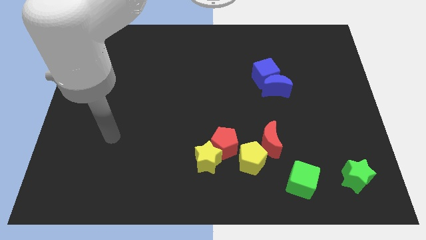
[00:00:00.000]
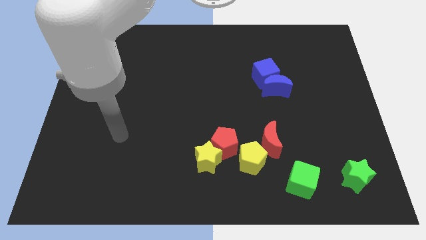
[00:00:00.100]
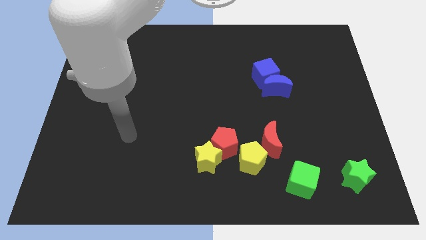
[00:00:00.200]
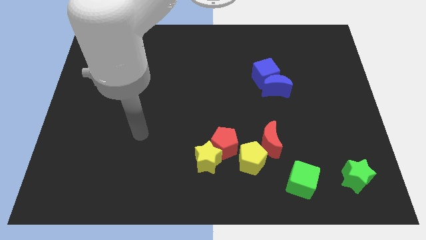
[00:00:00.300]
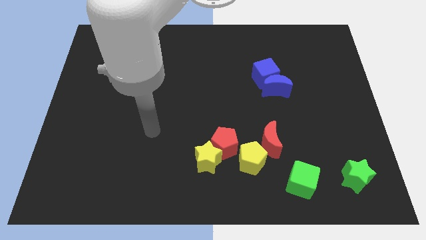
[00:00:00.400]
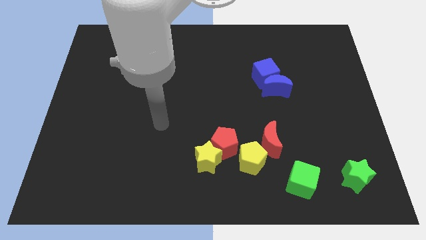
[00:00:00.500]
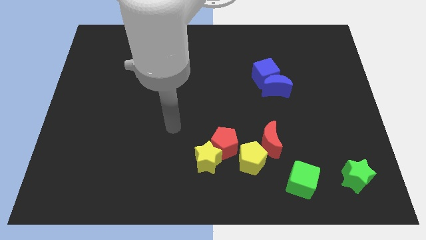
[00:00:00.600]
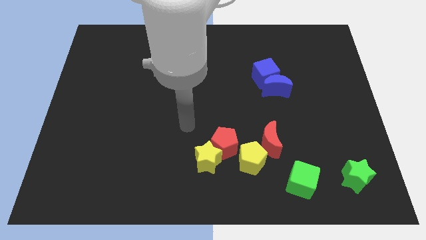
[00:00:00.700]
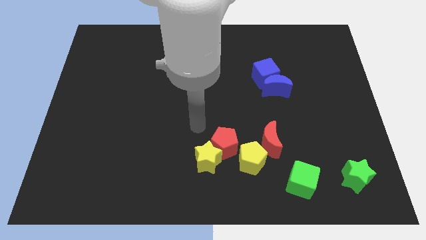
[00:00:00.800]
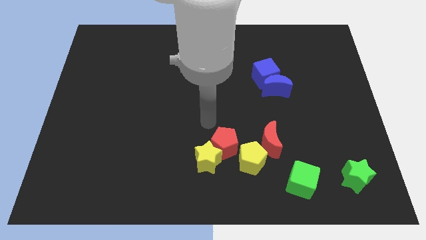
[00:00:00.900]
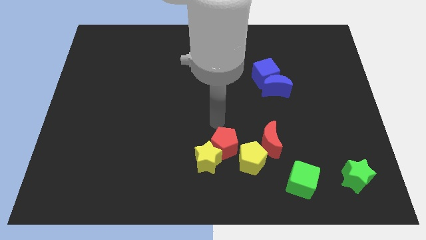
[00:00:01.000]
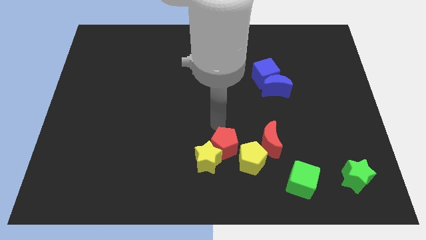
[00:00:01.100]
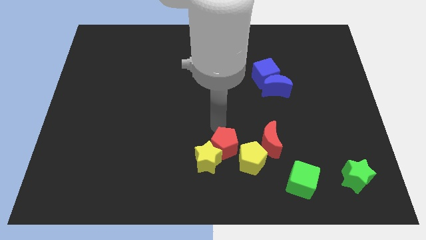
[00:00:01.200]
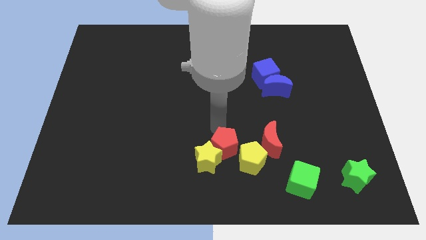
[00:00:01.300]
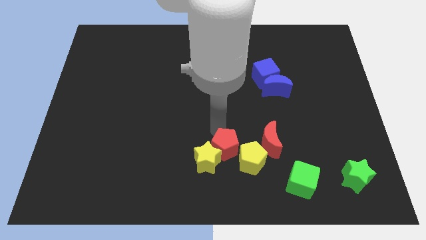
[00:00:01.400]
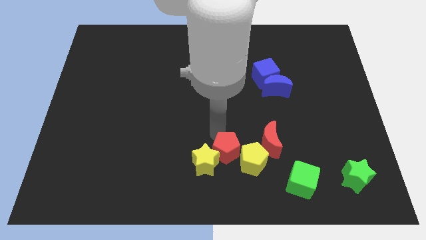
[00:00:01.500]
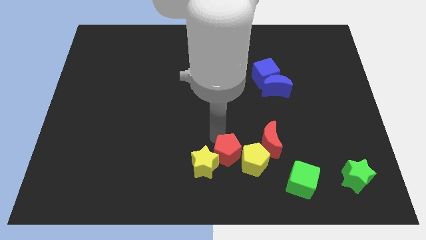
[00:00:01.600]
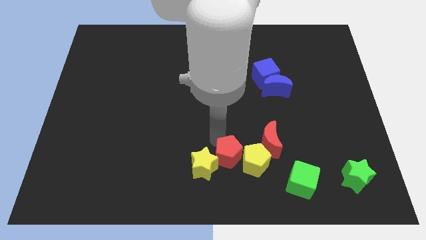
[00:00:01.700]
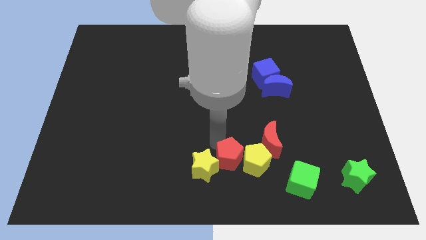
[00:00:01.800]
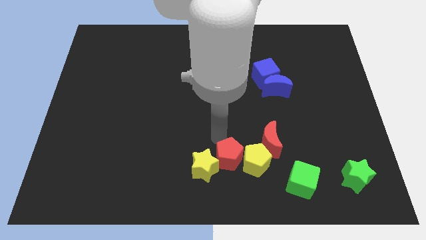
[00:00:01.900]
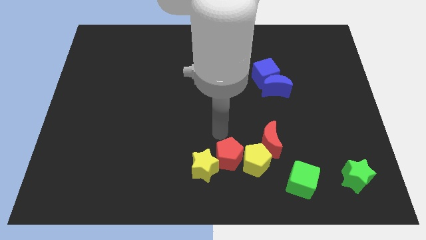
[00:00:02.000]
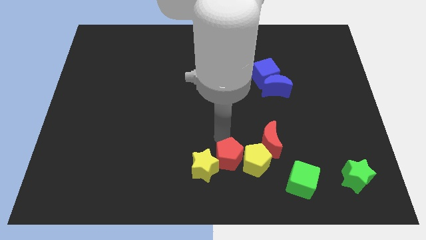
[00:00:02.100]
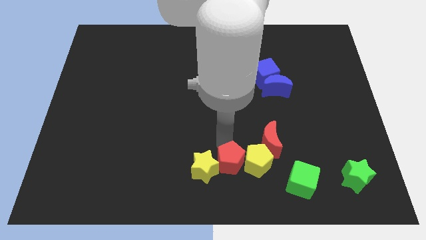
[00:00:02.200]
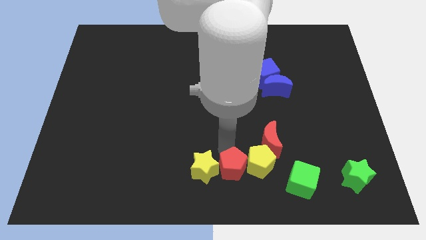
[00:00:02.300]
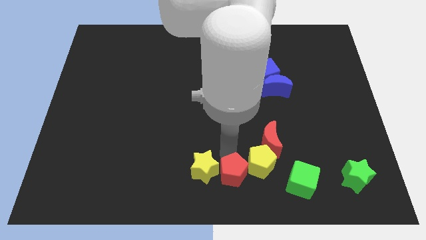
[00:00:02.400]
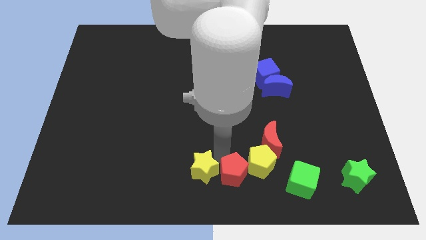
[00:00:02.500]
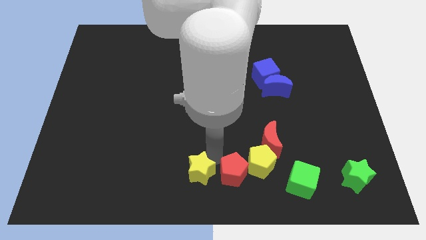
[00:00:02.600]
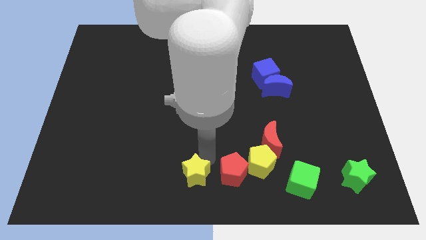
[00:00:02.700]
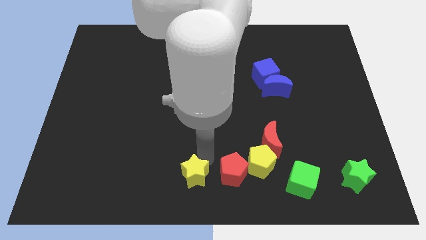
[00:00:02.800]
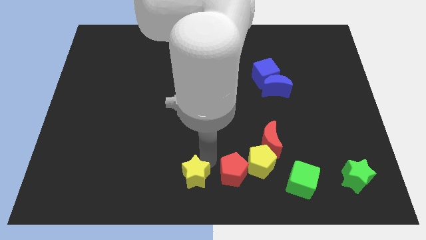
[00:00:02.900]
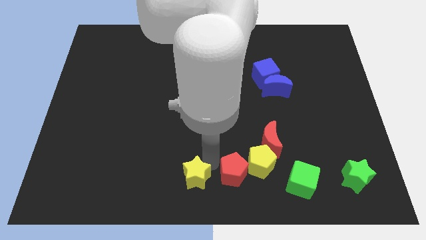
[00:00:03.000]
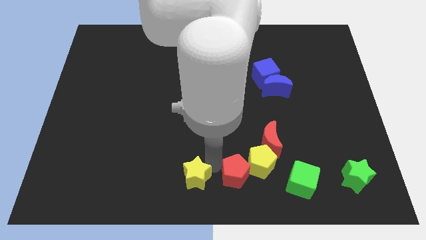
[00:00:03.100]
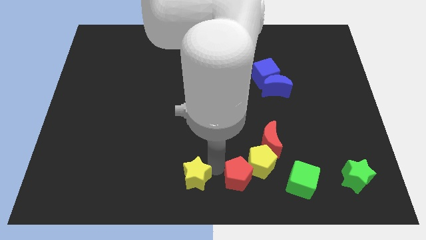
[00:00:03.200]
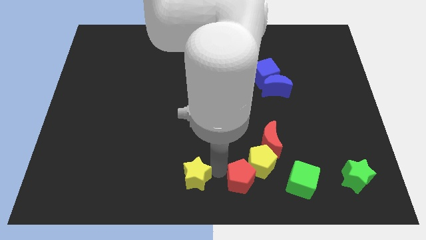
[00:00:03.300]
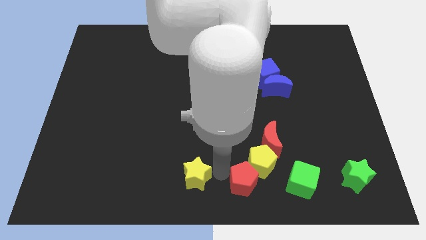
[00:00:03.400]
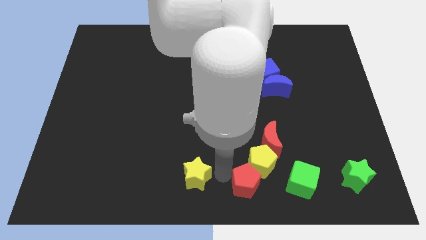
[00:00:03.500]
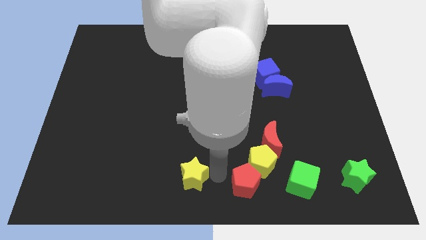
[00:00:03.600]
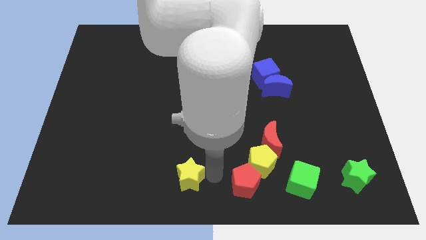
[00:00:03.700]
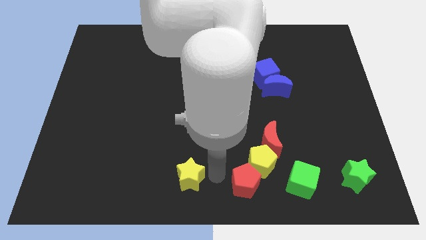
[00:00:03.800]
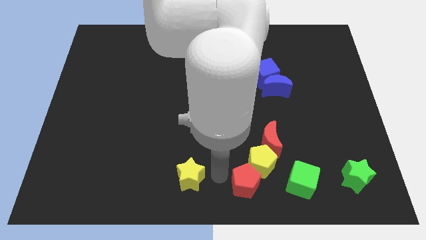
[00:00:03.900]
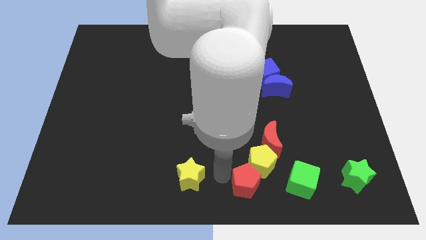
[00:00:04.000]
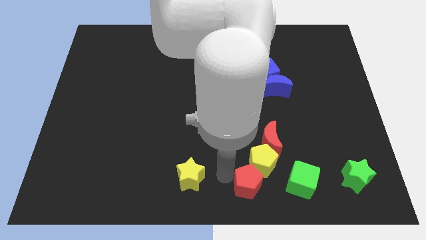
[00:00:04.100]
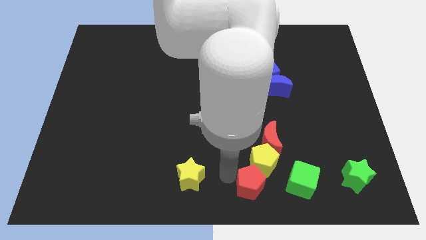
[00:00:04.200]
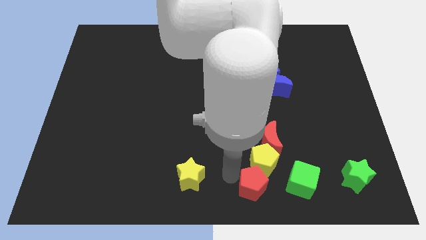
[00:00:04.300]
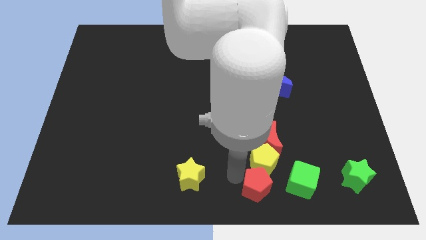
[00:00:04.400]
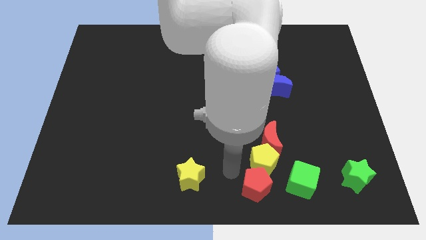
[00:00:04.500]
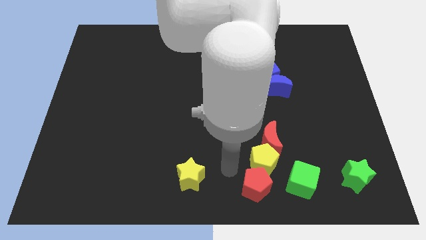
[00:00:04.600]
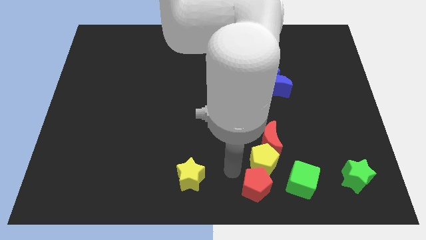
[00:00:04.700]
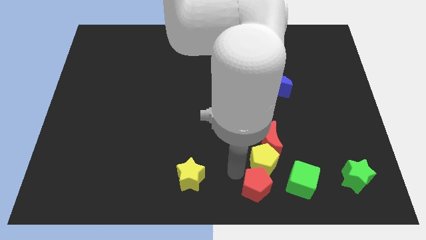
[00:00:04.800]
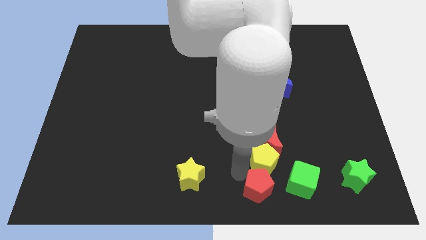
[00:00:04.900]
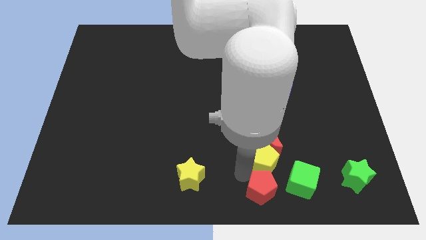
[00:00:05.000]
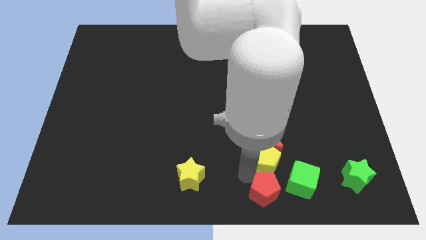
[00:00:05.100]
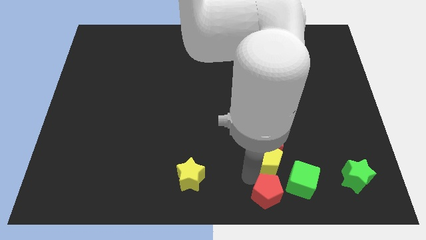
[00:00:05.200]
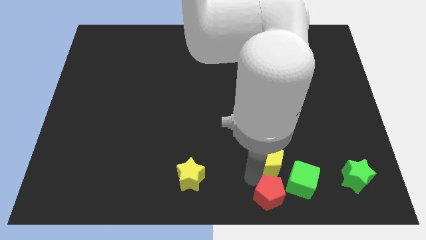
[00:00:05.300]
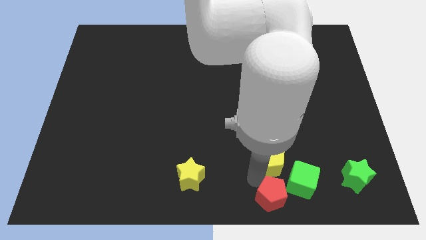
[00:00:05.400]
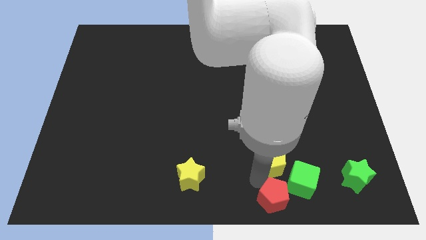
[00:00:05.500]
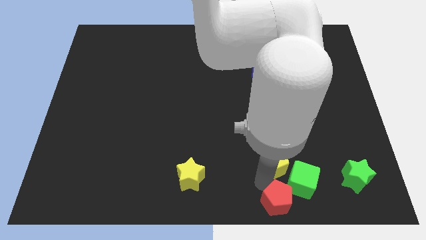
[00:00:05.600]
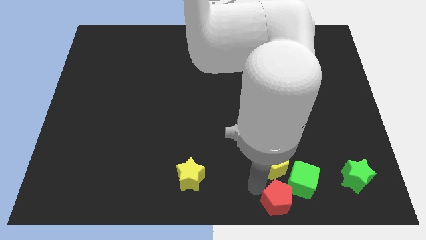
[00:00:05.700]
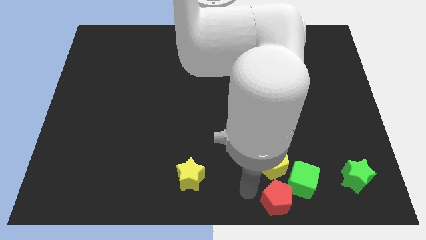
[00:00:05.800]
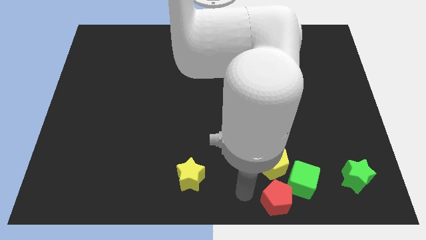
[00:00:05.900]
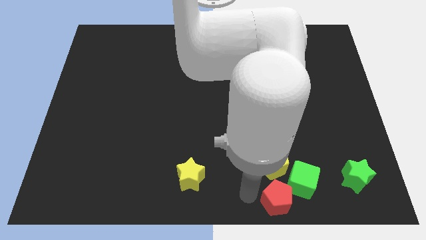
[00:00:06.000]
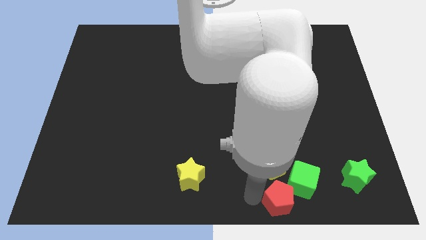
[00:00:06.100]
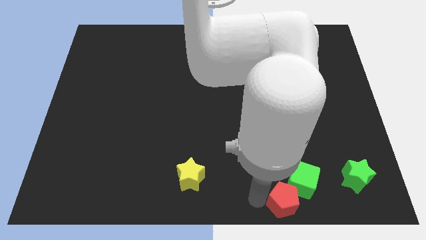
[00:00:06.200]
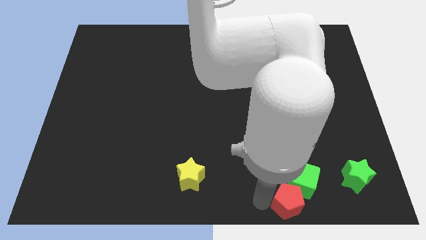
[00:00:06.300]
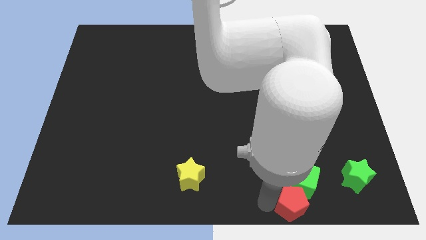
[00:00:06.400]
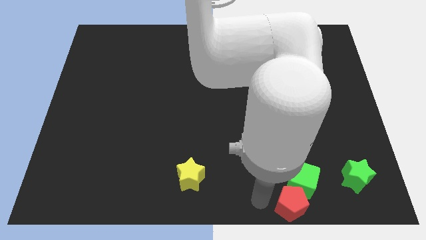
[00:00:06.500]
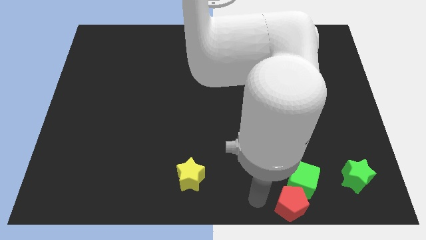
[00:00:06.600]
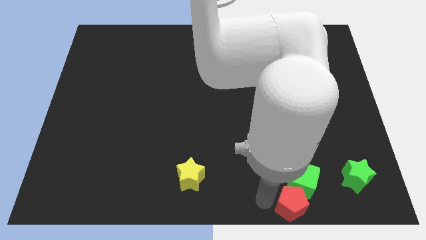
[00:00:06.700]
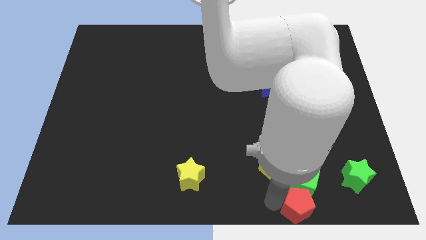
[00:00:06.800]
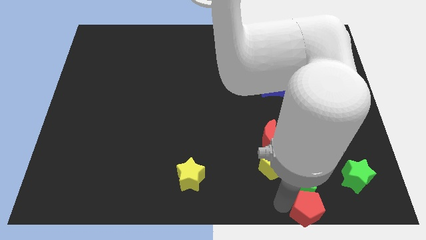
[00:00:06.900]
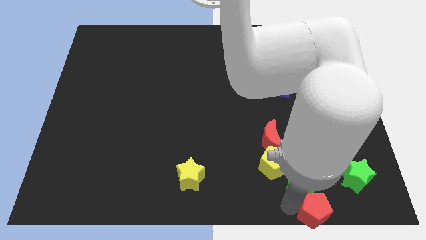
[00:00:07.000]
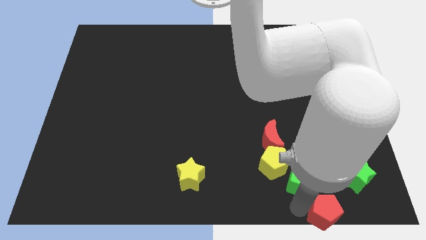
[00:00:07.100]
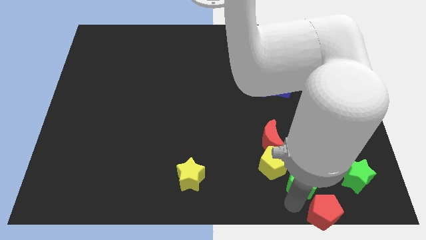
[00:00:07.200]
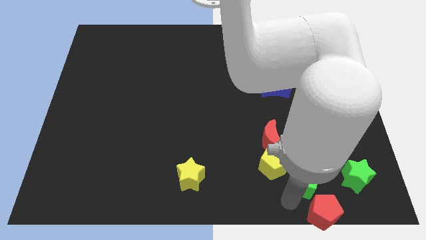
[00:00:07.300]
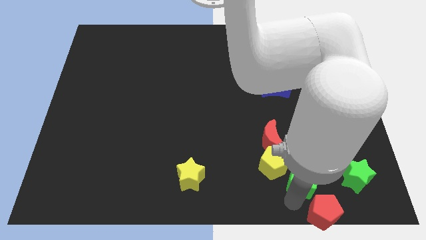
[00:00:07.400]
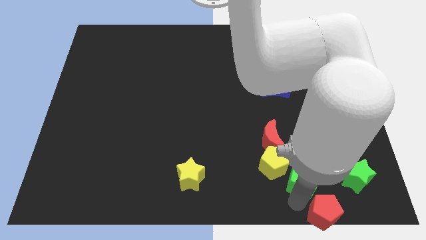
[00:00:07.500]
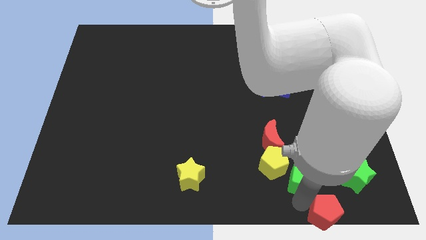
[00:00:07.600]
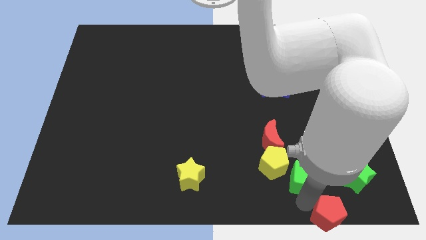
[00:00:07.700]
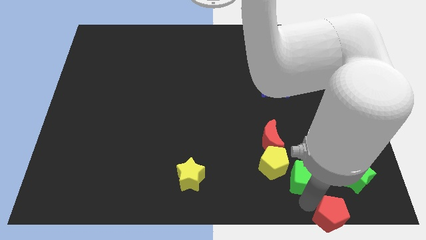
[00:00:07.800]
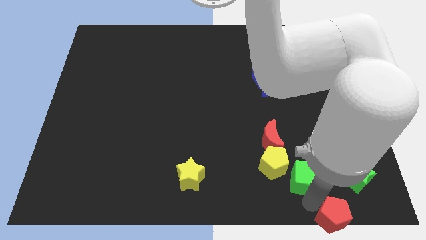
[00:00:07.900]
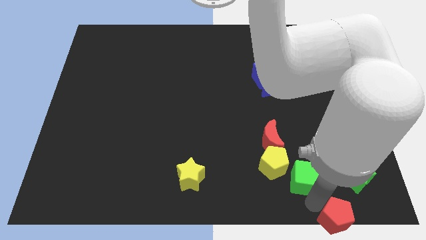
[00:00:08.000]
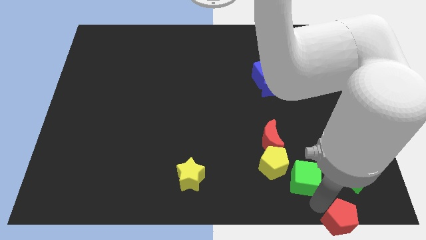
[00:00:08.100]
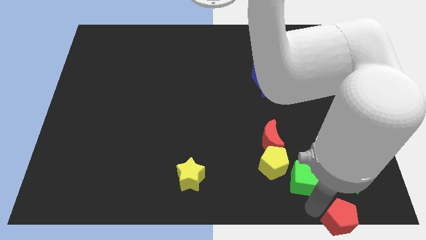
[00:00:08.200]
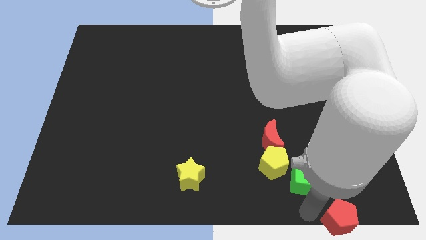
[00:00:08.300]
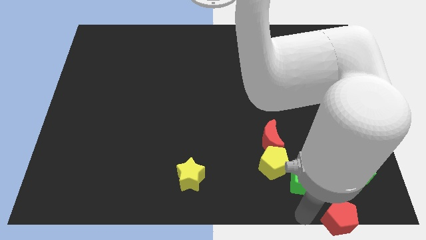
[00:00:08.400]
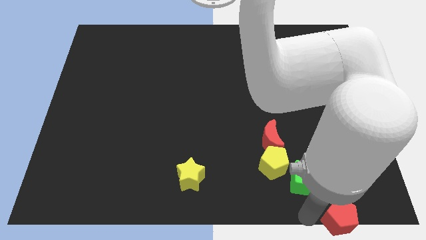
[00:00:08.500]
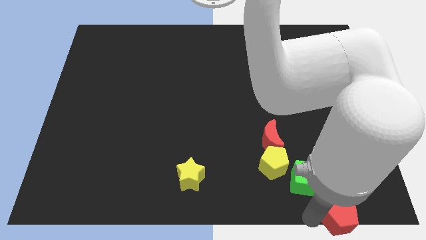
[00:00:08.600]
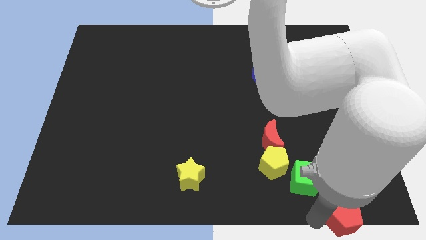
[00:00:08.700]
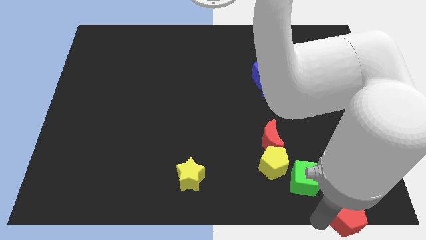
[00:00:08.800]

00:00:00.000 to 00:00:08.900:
slide the red pentagon to the lower right corner
